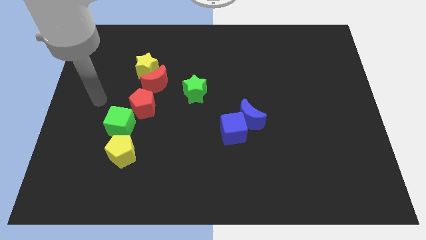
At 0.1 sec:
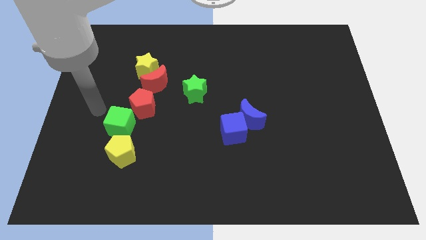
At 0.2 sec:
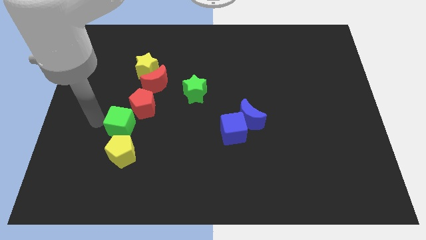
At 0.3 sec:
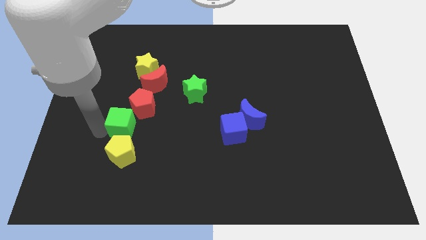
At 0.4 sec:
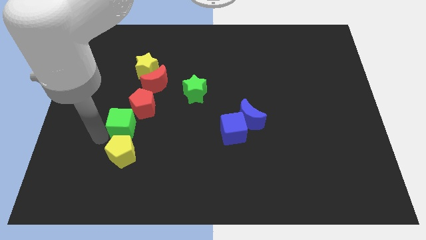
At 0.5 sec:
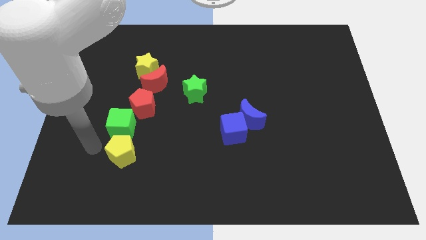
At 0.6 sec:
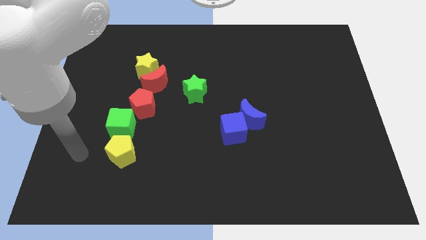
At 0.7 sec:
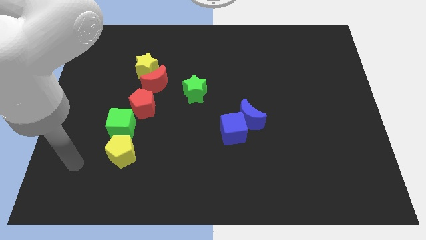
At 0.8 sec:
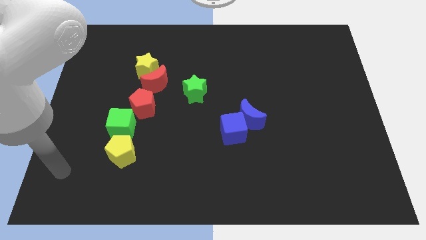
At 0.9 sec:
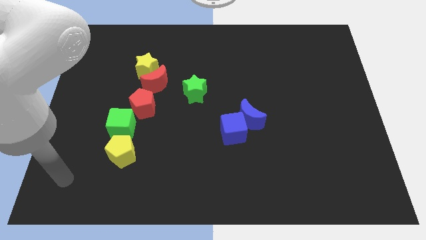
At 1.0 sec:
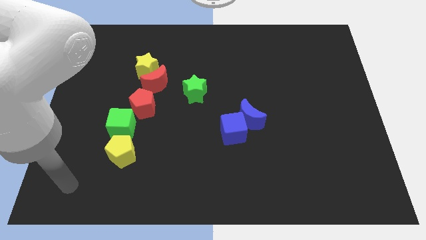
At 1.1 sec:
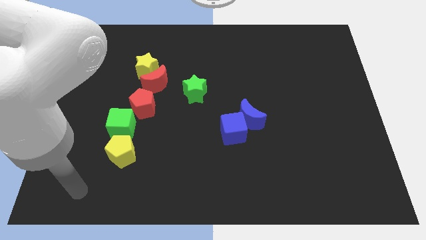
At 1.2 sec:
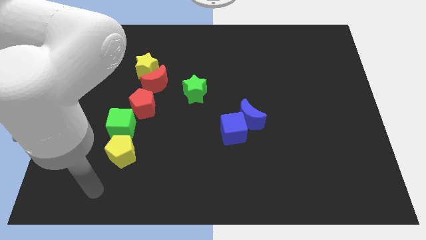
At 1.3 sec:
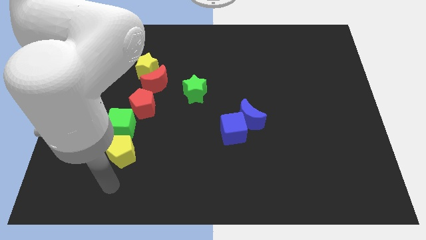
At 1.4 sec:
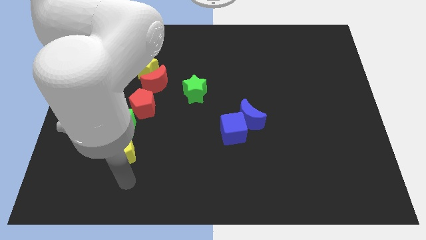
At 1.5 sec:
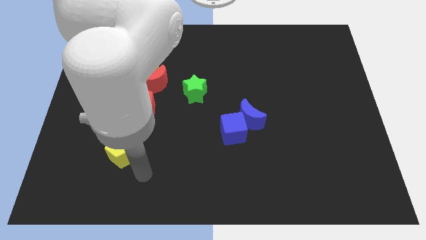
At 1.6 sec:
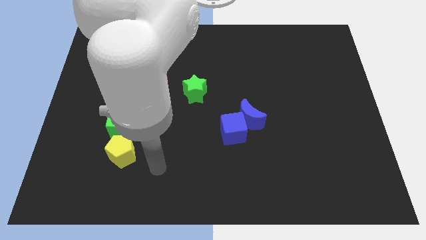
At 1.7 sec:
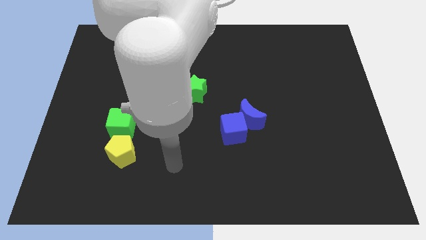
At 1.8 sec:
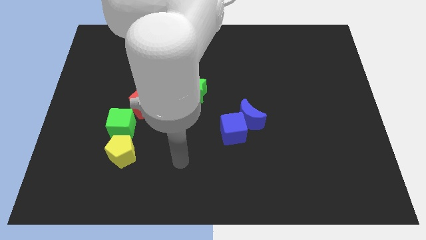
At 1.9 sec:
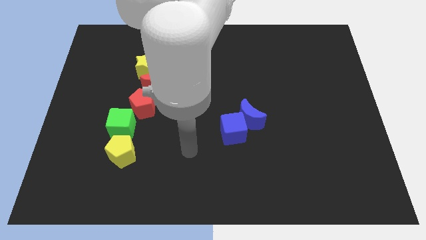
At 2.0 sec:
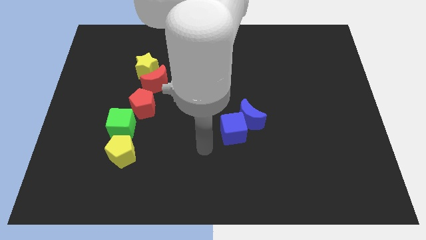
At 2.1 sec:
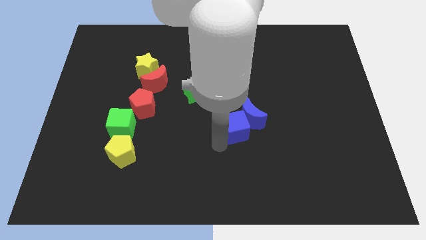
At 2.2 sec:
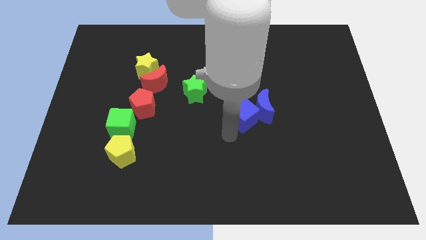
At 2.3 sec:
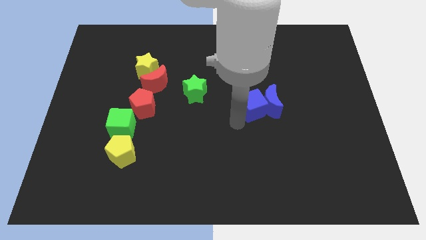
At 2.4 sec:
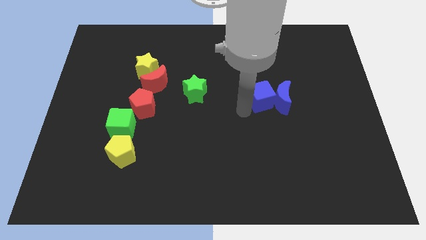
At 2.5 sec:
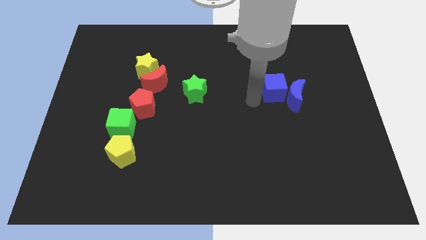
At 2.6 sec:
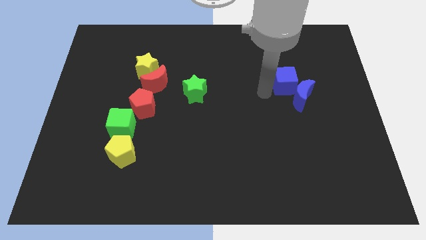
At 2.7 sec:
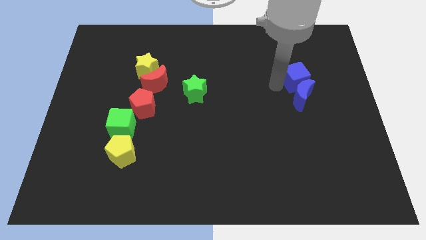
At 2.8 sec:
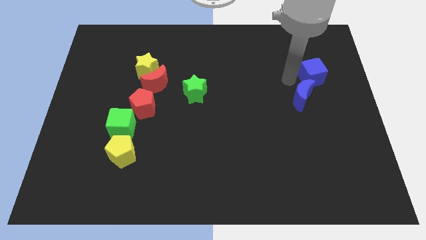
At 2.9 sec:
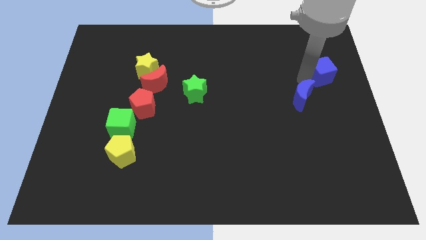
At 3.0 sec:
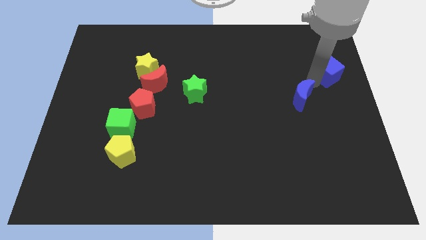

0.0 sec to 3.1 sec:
separate the blue moon from the blue cube

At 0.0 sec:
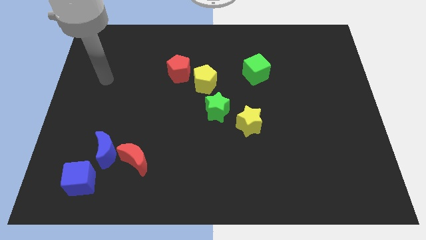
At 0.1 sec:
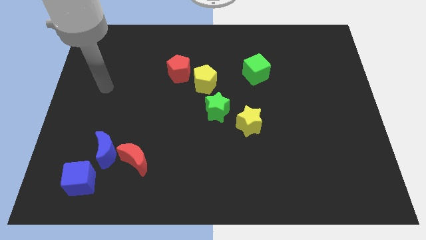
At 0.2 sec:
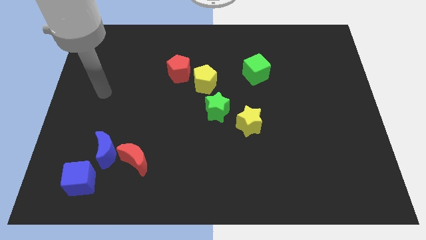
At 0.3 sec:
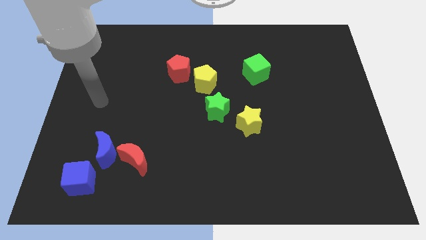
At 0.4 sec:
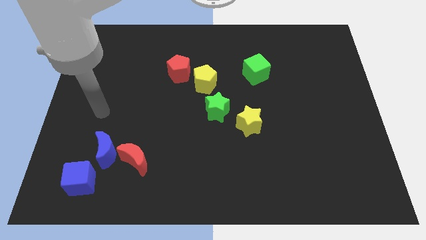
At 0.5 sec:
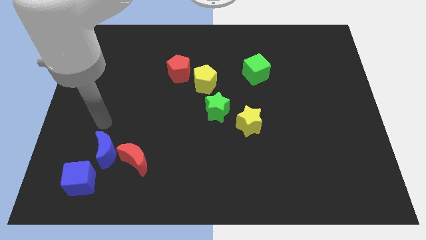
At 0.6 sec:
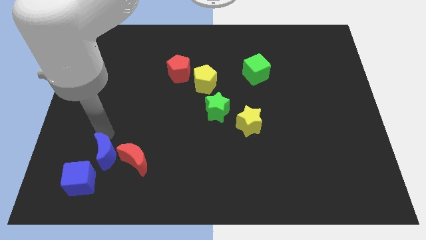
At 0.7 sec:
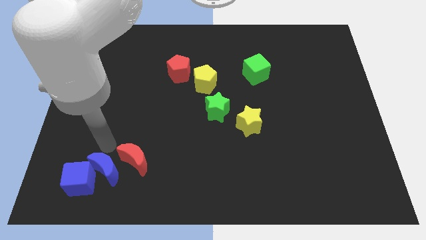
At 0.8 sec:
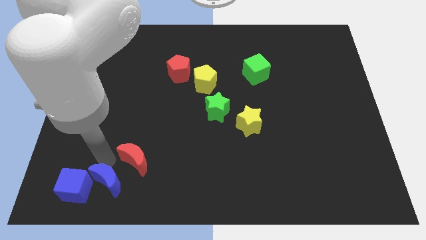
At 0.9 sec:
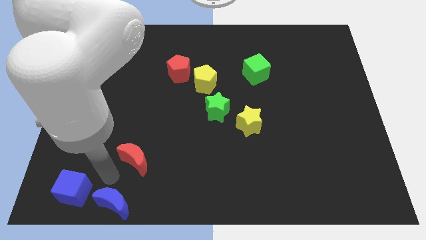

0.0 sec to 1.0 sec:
move the red moon away from the blue moon

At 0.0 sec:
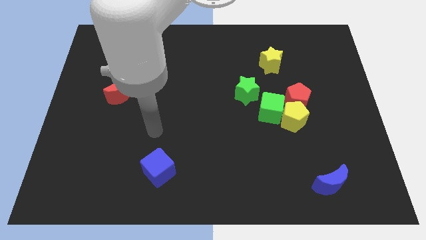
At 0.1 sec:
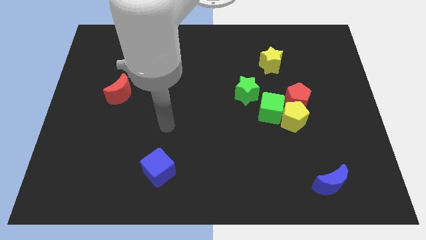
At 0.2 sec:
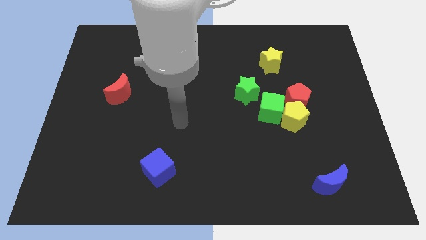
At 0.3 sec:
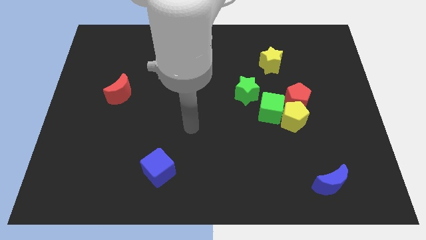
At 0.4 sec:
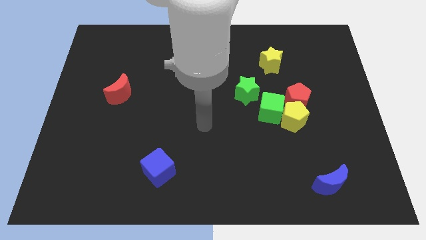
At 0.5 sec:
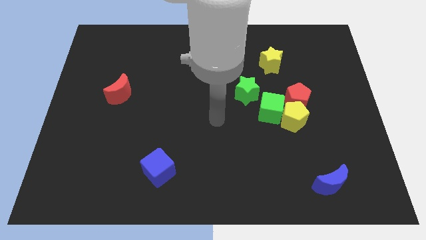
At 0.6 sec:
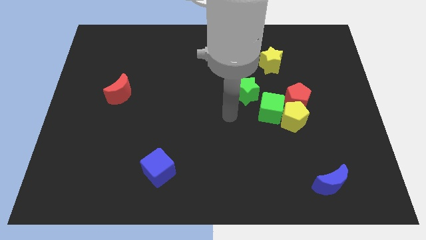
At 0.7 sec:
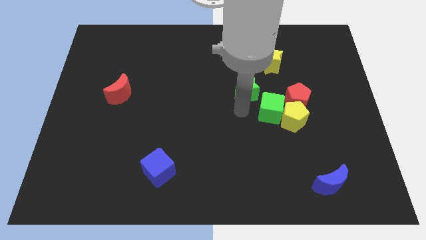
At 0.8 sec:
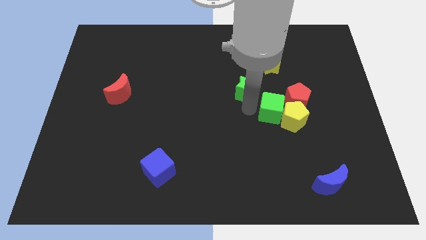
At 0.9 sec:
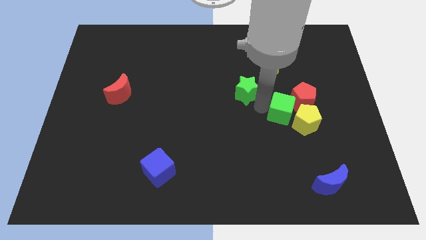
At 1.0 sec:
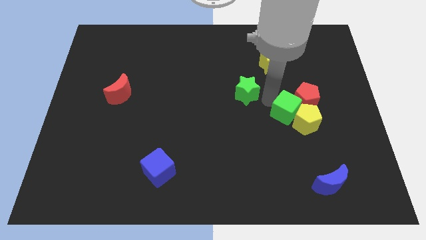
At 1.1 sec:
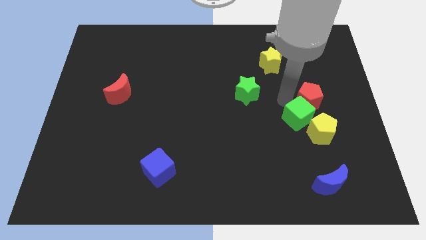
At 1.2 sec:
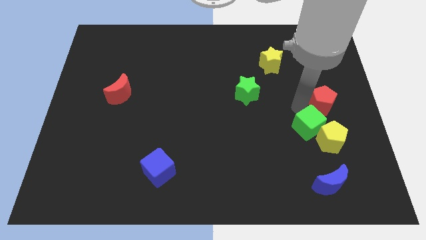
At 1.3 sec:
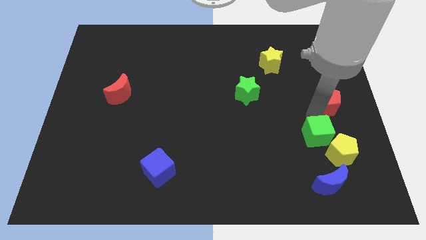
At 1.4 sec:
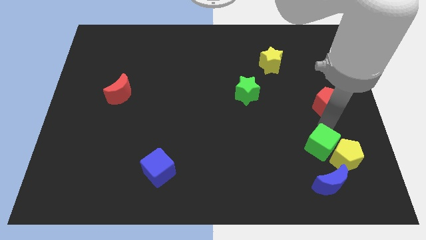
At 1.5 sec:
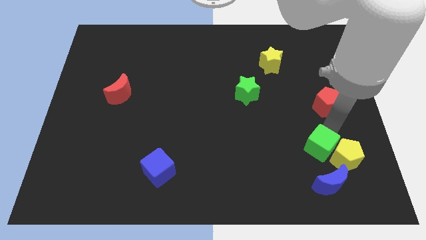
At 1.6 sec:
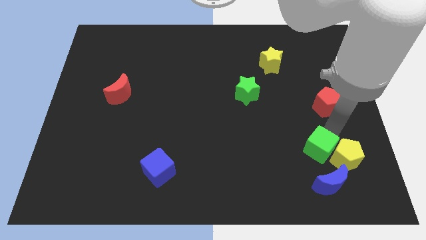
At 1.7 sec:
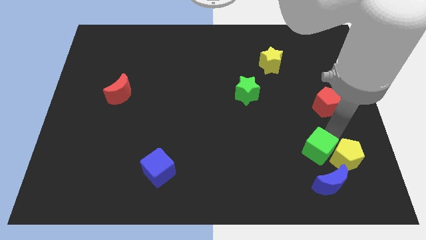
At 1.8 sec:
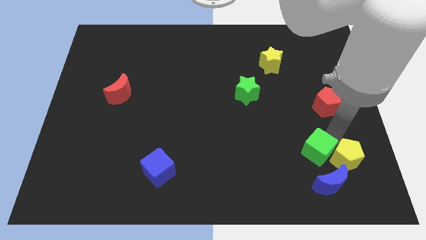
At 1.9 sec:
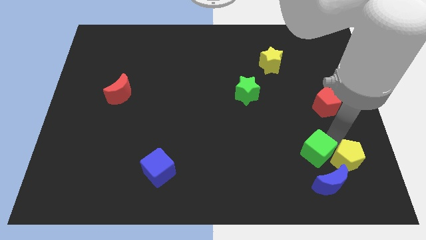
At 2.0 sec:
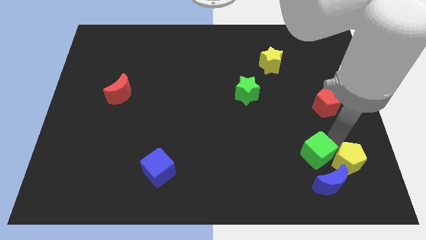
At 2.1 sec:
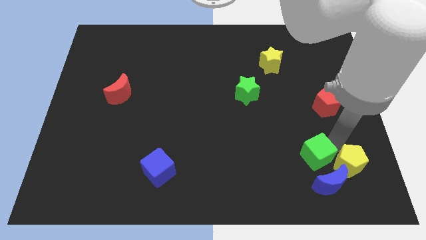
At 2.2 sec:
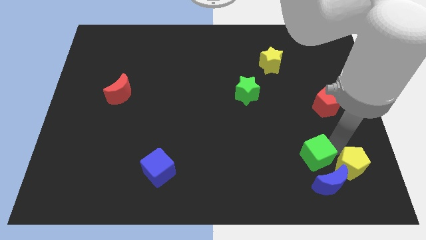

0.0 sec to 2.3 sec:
move the yellow pentagon away from the red pentagon and green cube

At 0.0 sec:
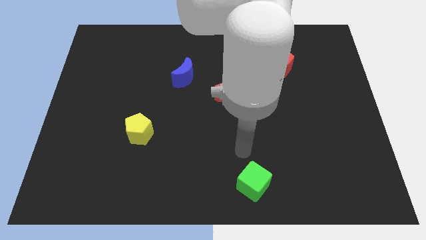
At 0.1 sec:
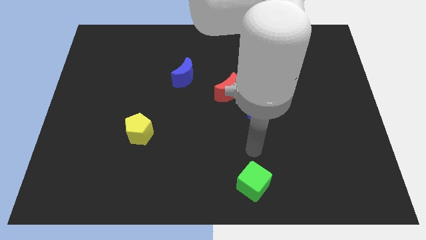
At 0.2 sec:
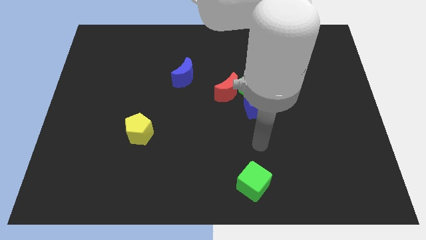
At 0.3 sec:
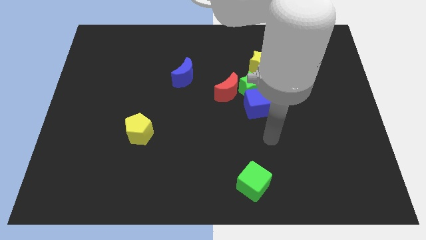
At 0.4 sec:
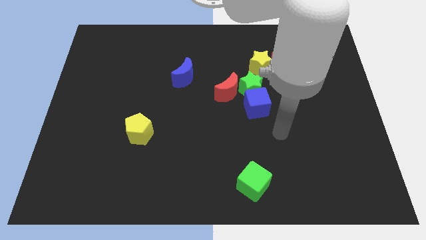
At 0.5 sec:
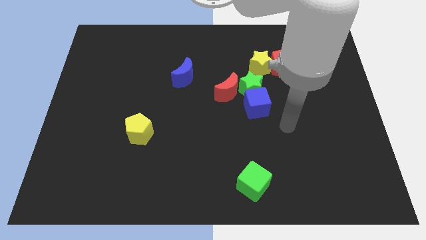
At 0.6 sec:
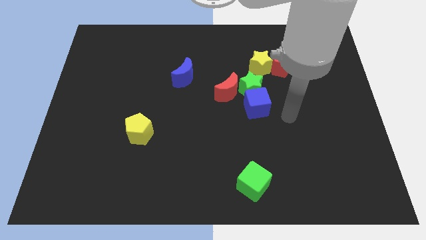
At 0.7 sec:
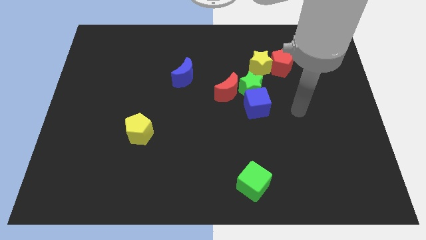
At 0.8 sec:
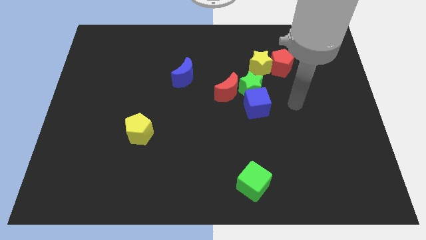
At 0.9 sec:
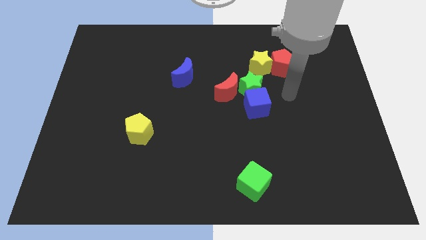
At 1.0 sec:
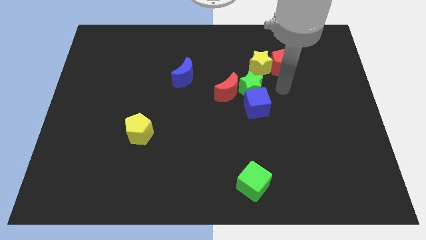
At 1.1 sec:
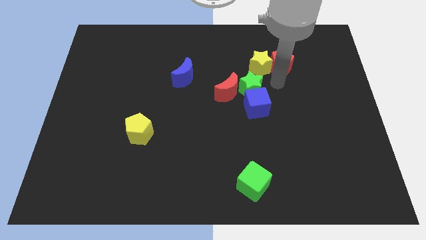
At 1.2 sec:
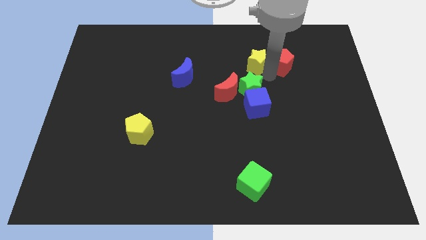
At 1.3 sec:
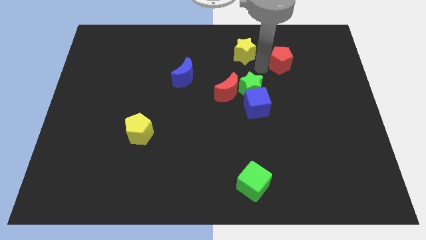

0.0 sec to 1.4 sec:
separate the red pentagon from the yellow star

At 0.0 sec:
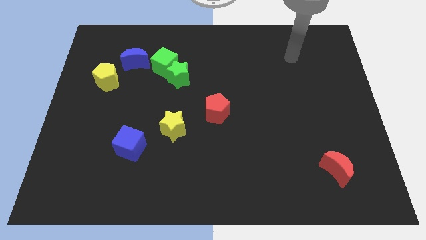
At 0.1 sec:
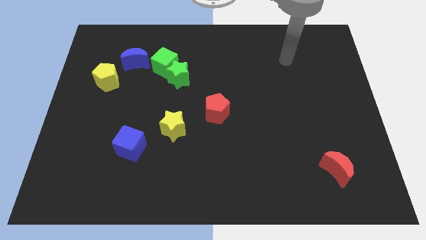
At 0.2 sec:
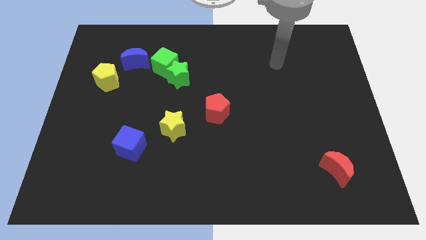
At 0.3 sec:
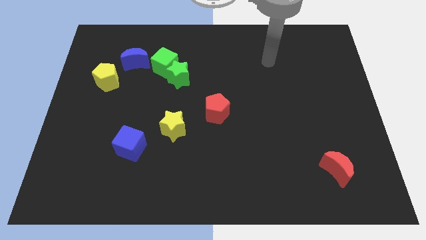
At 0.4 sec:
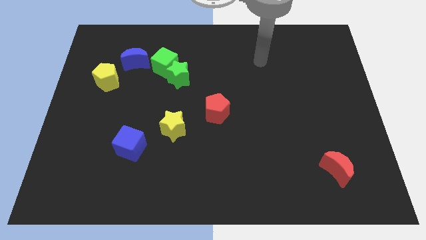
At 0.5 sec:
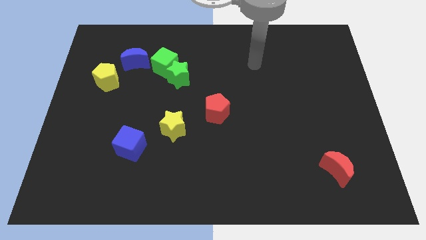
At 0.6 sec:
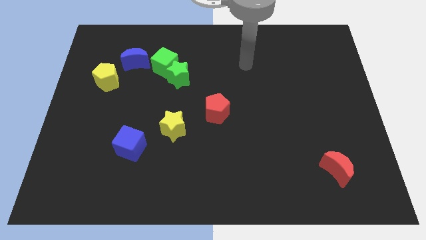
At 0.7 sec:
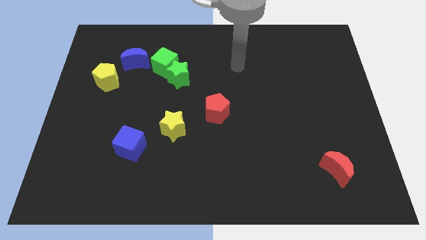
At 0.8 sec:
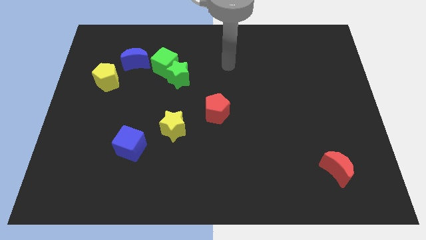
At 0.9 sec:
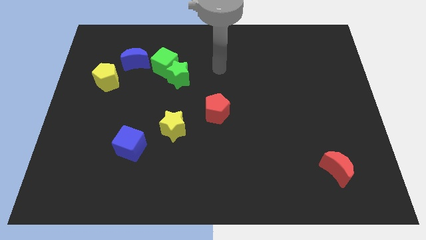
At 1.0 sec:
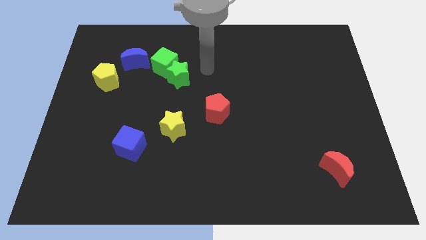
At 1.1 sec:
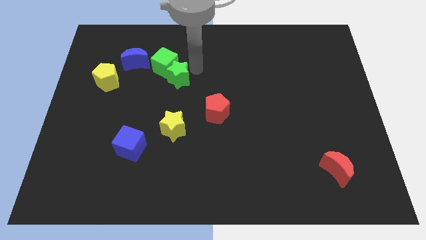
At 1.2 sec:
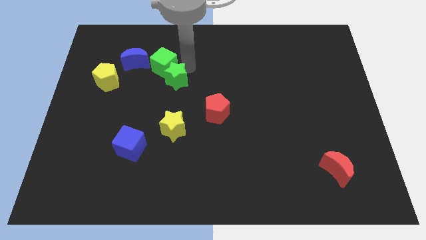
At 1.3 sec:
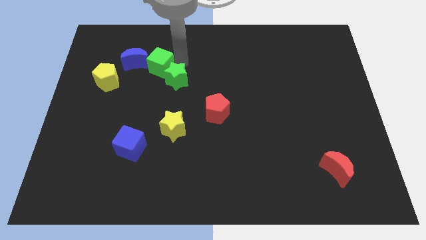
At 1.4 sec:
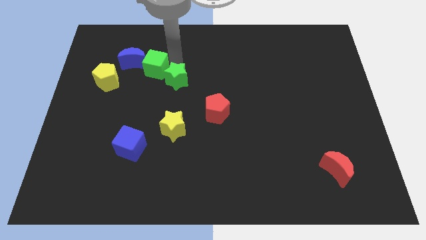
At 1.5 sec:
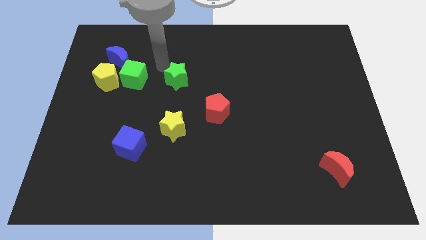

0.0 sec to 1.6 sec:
pull the green star apart from the green cube
